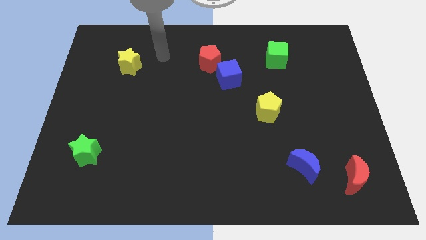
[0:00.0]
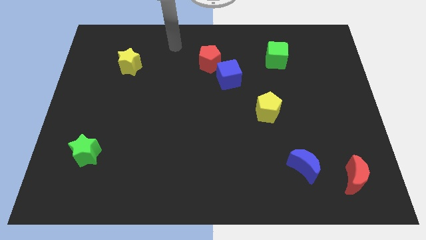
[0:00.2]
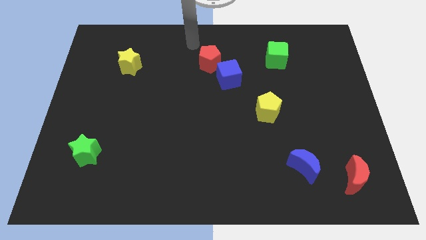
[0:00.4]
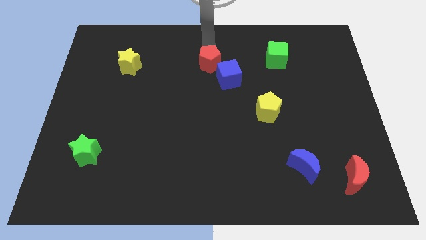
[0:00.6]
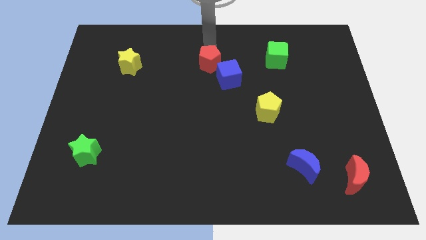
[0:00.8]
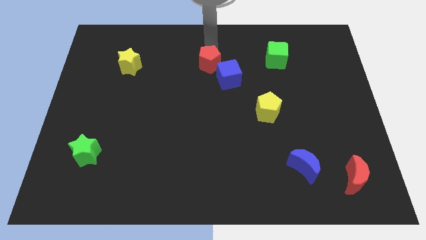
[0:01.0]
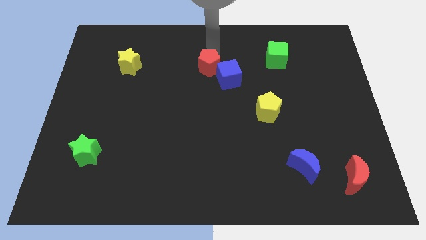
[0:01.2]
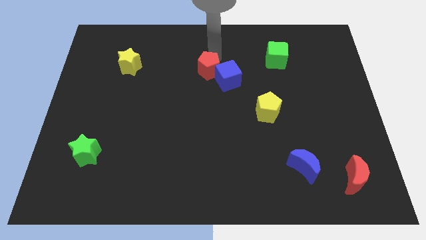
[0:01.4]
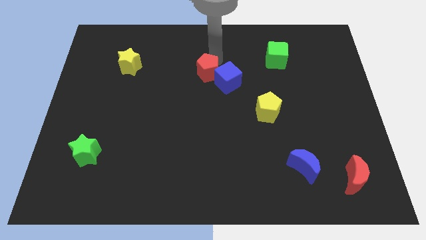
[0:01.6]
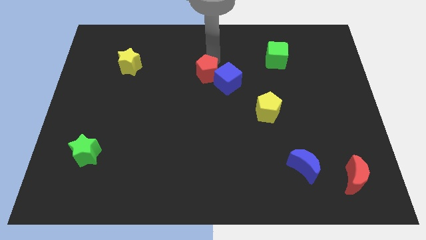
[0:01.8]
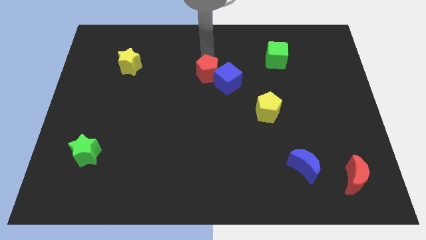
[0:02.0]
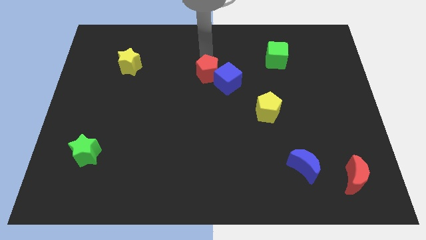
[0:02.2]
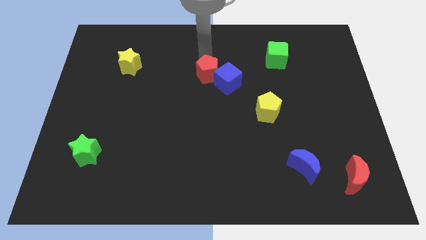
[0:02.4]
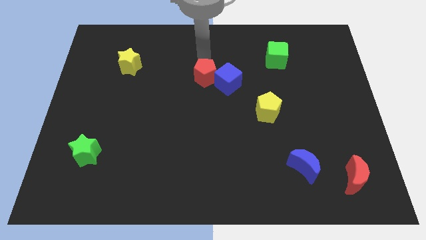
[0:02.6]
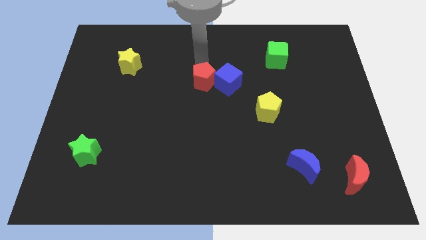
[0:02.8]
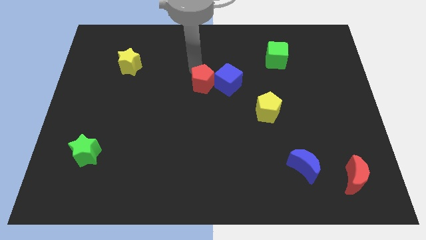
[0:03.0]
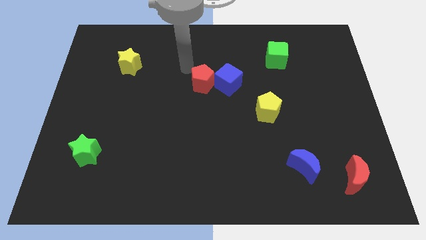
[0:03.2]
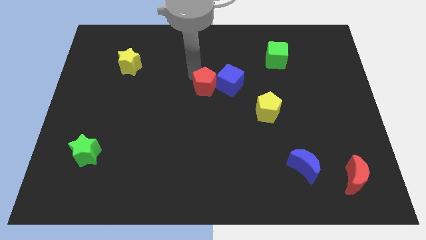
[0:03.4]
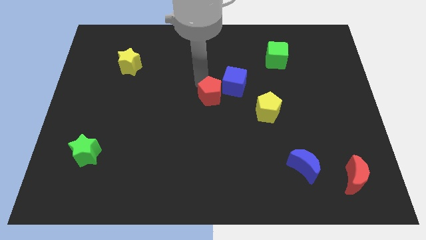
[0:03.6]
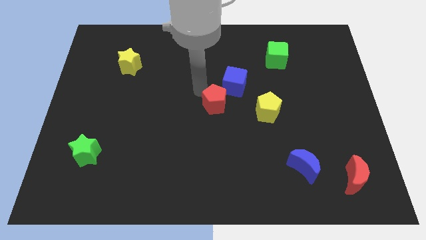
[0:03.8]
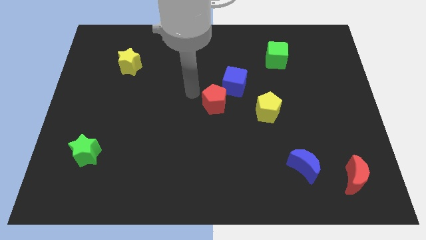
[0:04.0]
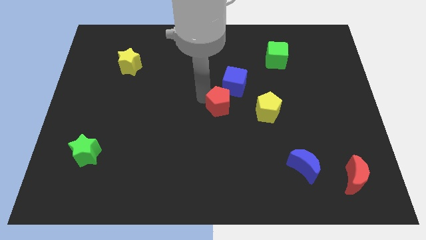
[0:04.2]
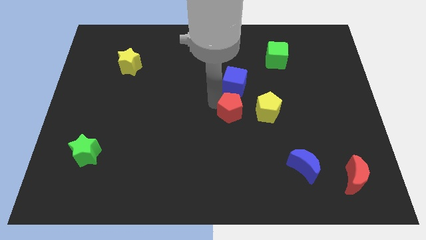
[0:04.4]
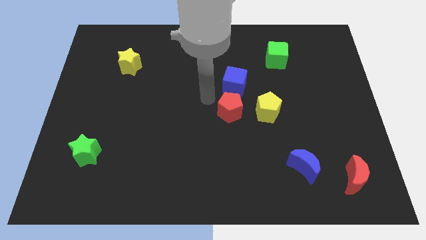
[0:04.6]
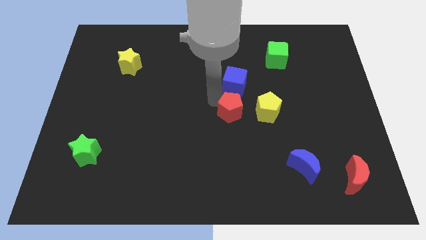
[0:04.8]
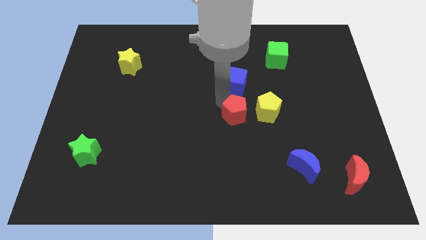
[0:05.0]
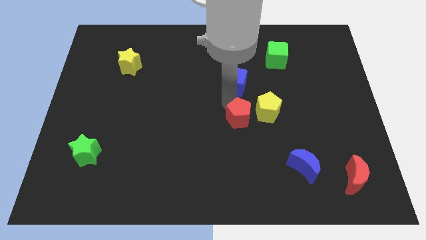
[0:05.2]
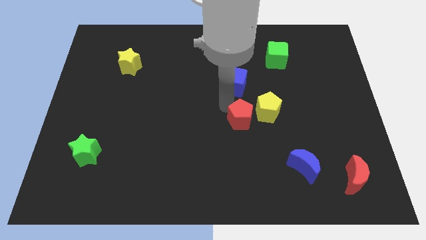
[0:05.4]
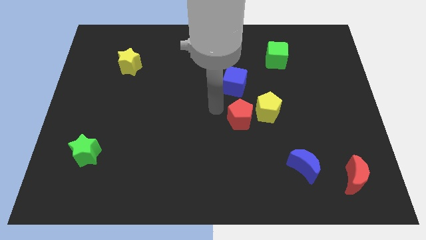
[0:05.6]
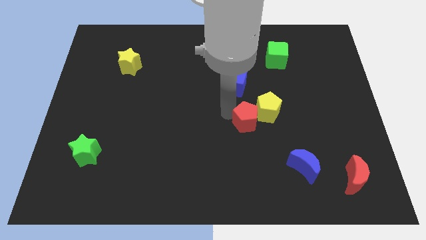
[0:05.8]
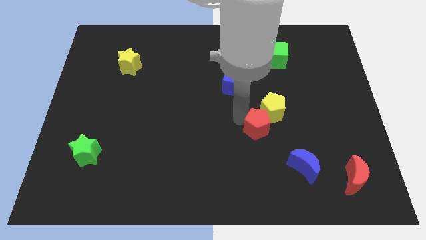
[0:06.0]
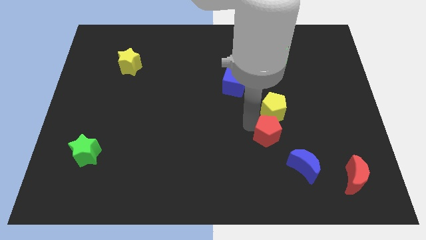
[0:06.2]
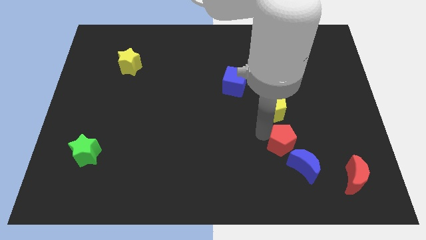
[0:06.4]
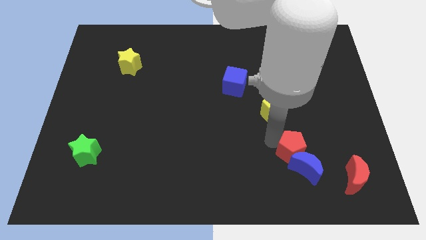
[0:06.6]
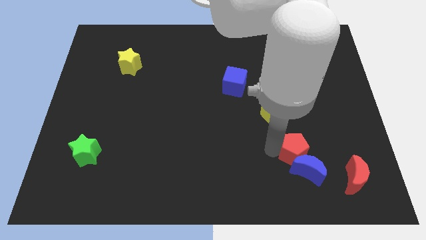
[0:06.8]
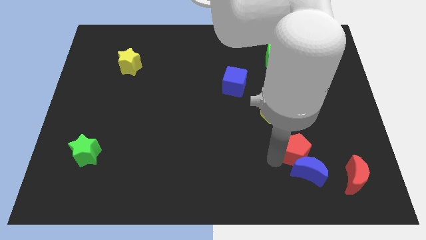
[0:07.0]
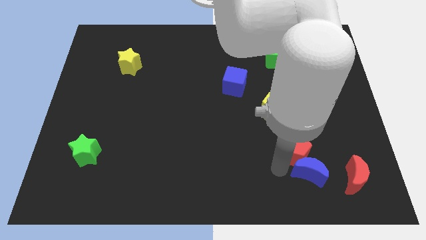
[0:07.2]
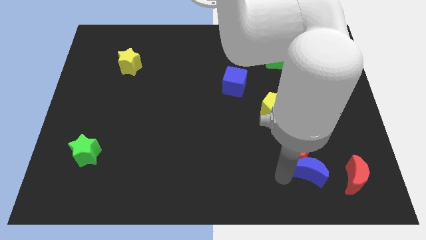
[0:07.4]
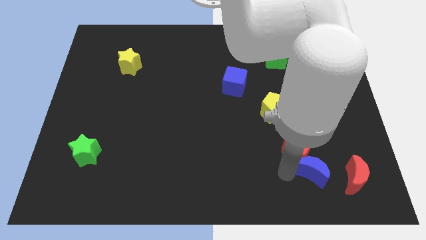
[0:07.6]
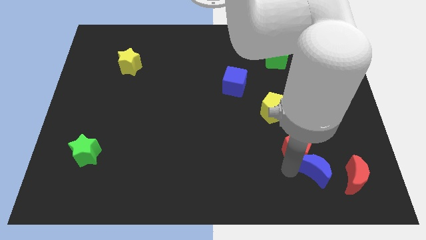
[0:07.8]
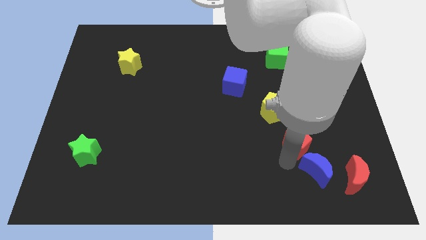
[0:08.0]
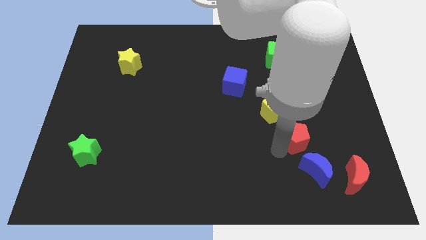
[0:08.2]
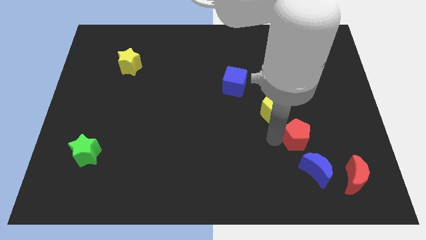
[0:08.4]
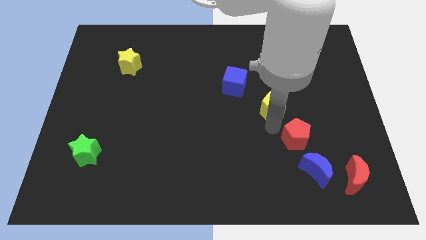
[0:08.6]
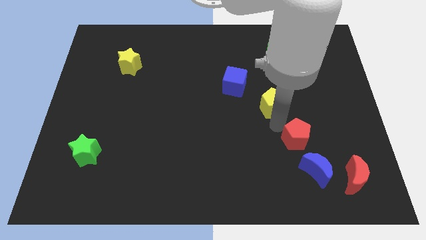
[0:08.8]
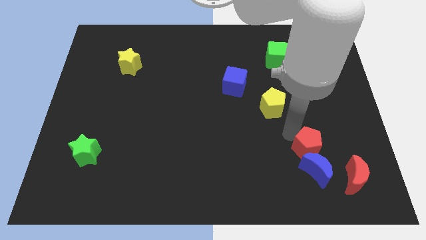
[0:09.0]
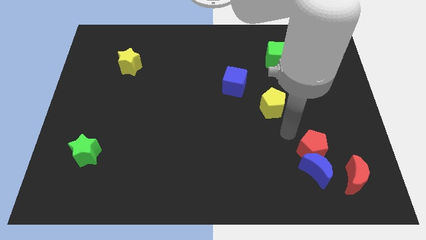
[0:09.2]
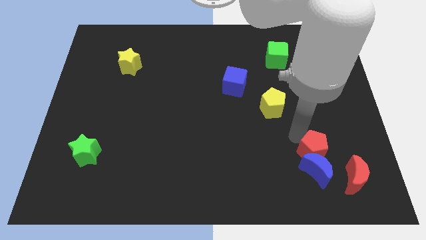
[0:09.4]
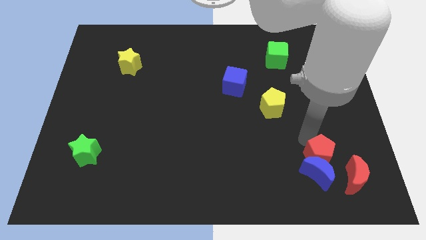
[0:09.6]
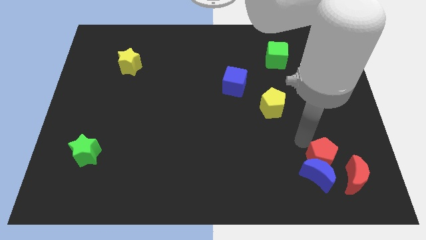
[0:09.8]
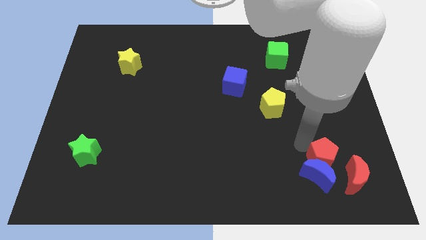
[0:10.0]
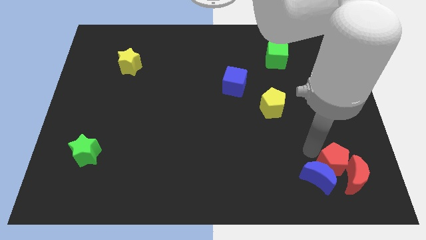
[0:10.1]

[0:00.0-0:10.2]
put the red pentagon to the red moon

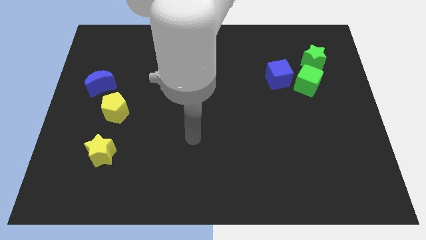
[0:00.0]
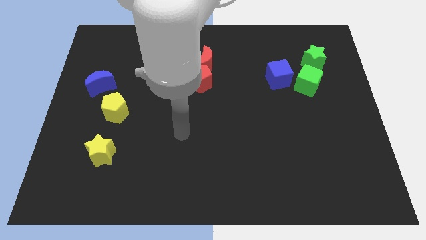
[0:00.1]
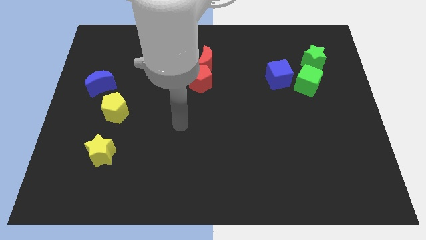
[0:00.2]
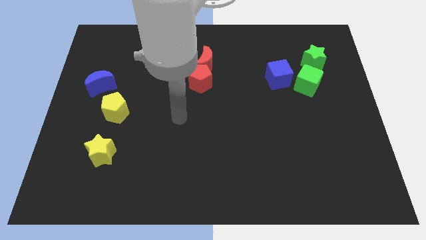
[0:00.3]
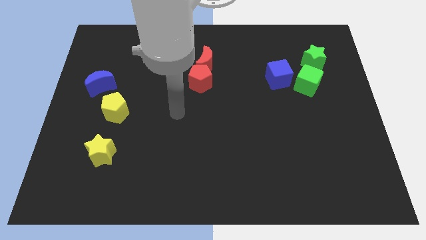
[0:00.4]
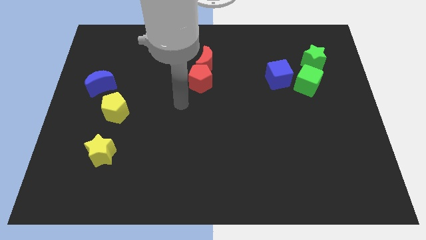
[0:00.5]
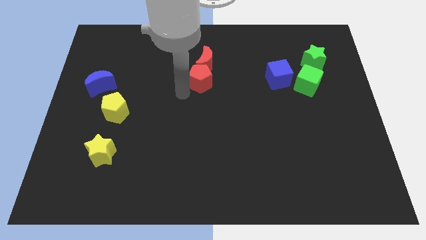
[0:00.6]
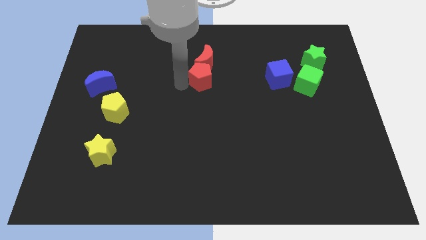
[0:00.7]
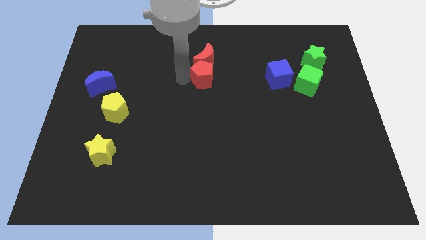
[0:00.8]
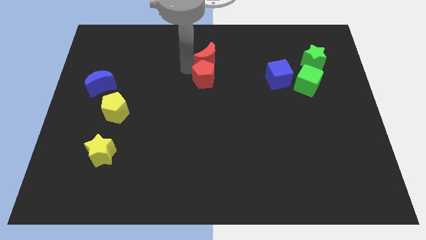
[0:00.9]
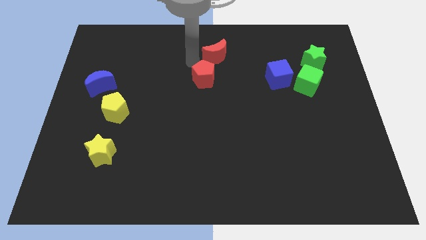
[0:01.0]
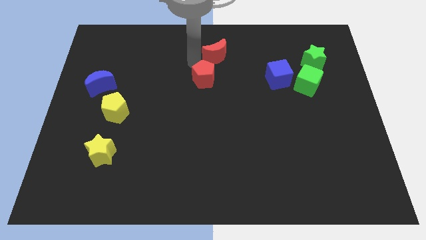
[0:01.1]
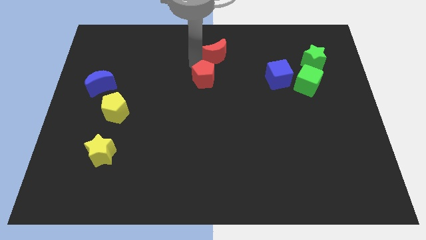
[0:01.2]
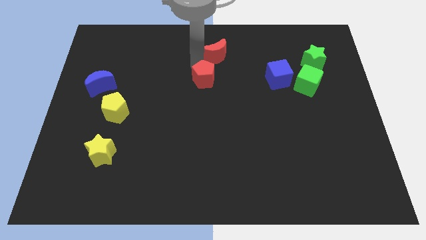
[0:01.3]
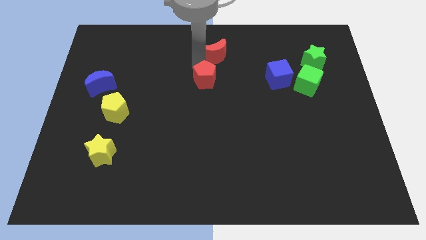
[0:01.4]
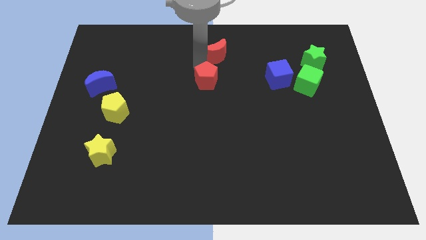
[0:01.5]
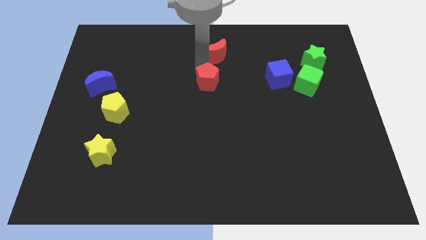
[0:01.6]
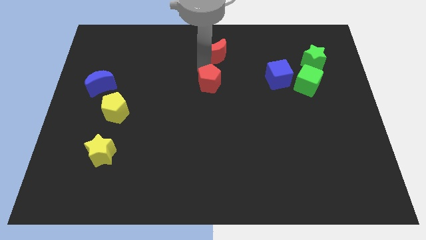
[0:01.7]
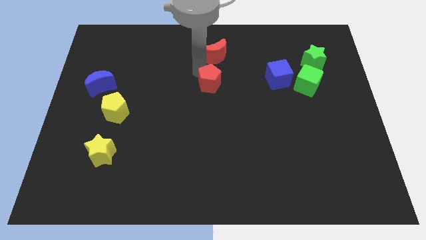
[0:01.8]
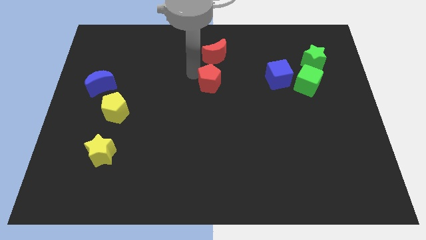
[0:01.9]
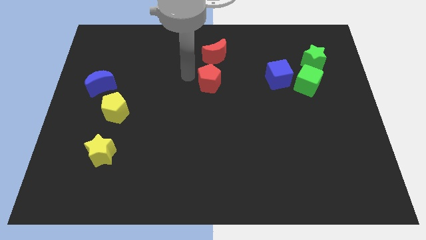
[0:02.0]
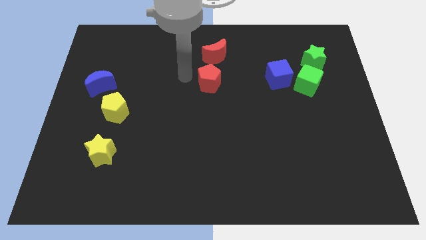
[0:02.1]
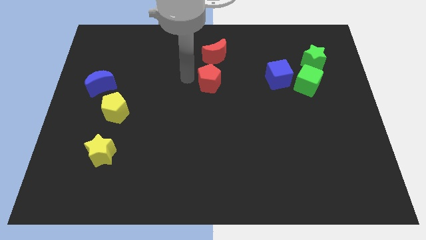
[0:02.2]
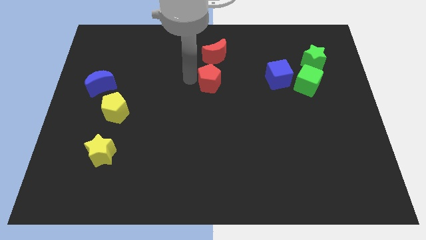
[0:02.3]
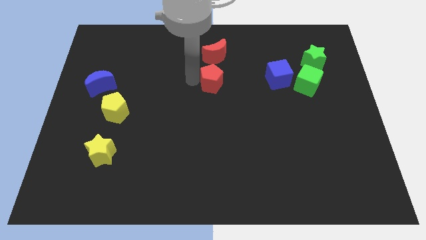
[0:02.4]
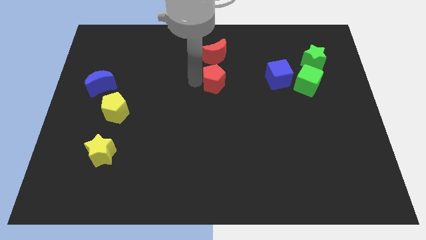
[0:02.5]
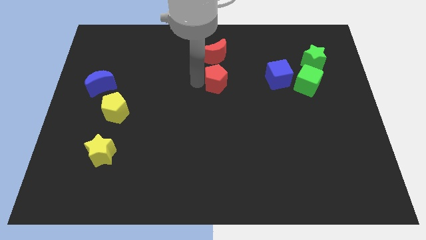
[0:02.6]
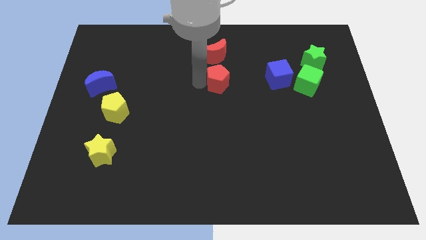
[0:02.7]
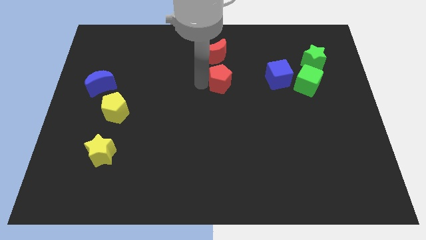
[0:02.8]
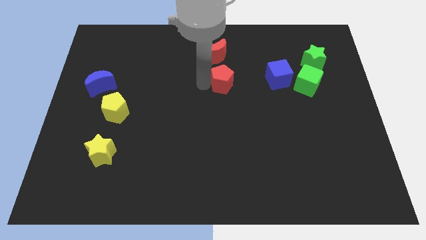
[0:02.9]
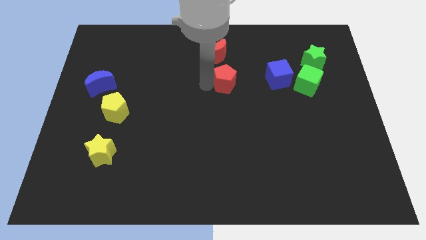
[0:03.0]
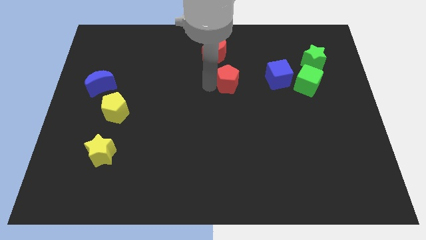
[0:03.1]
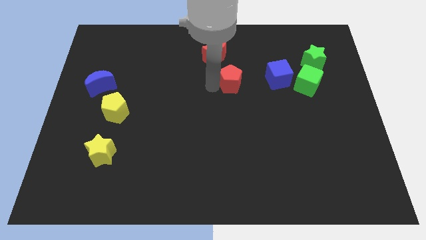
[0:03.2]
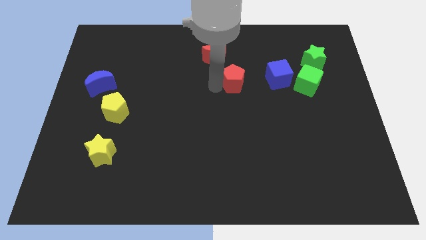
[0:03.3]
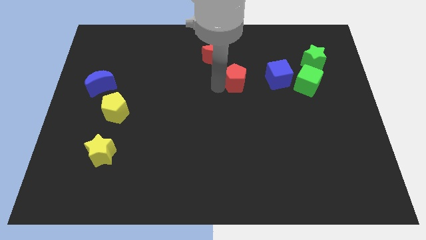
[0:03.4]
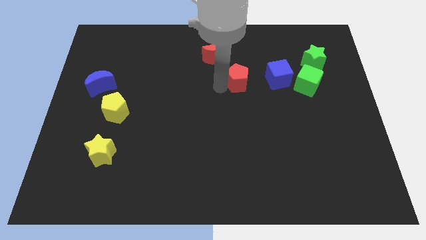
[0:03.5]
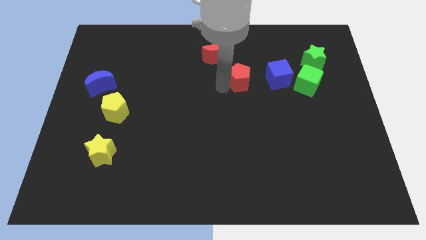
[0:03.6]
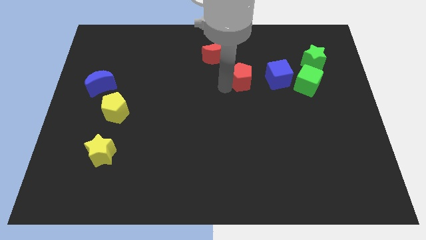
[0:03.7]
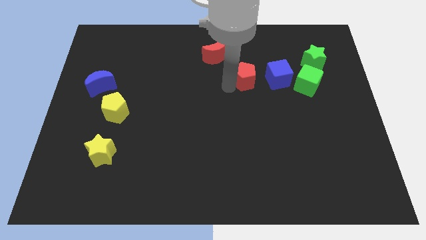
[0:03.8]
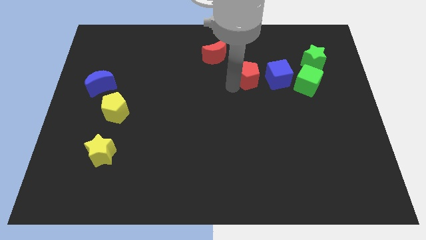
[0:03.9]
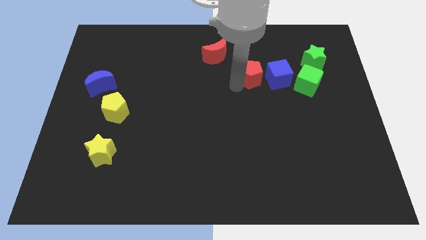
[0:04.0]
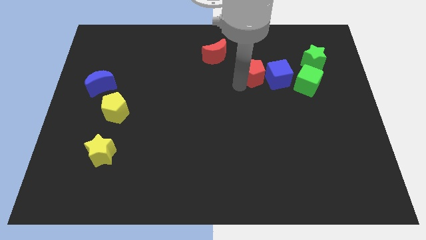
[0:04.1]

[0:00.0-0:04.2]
put the red pentagon next to the blue cube
